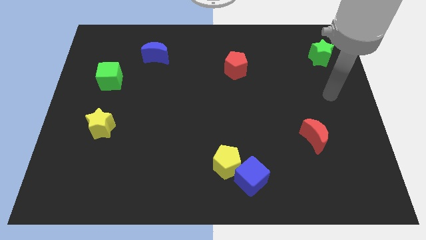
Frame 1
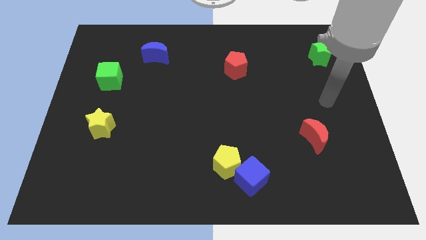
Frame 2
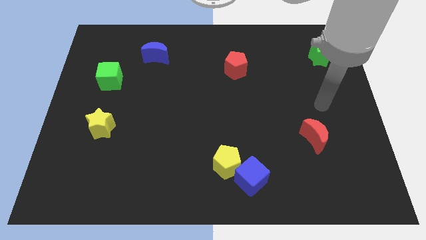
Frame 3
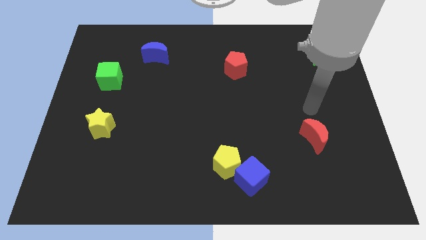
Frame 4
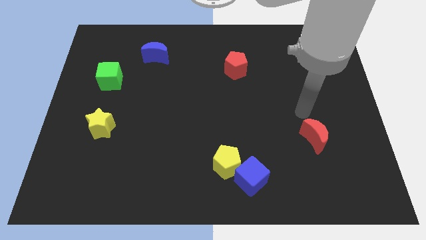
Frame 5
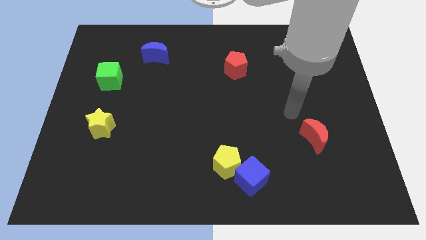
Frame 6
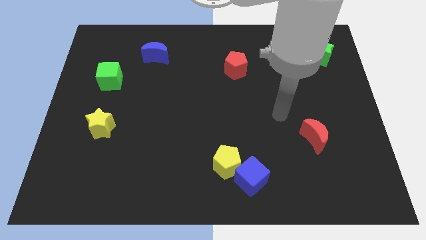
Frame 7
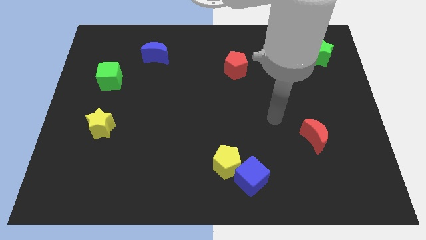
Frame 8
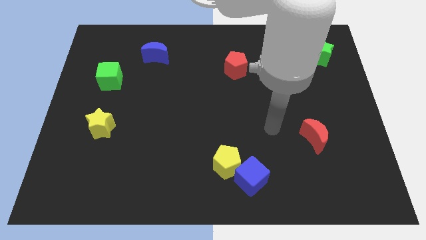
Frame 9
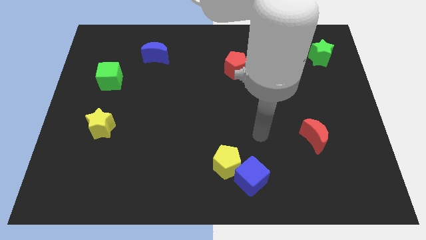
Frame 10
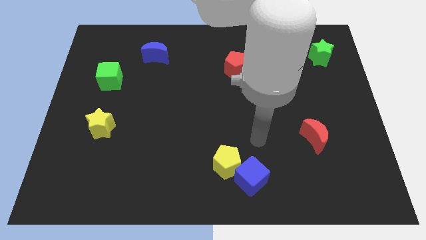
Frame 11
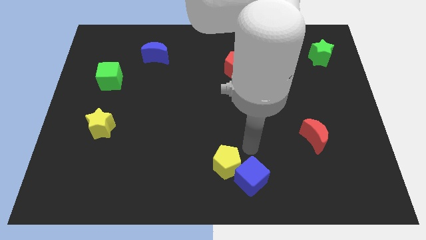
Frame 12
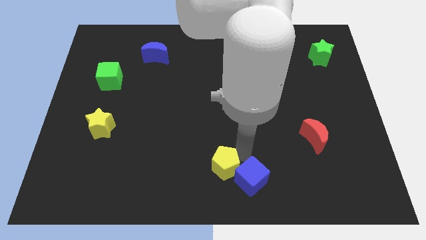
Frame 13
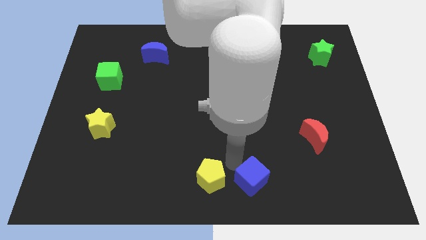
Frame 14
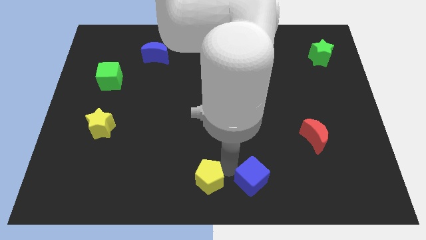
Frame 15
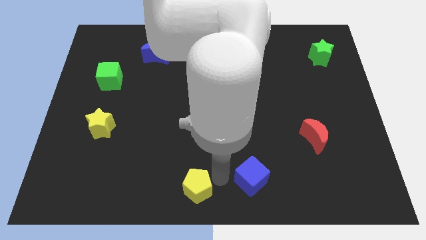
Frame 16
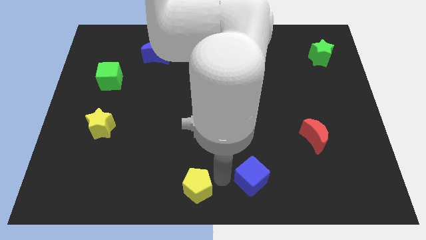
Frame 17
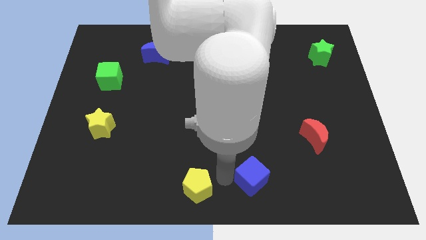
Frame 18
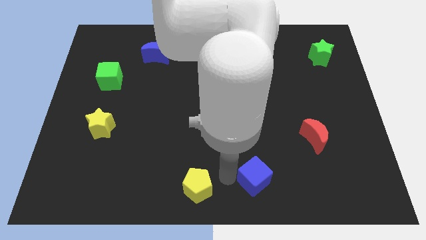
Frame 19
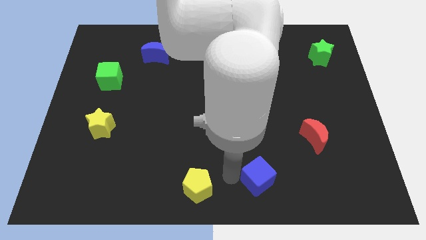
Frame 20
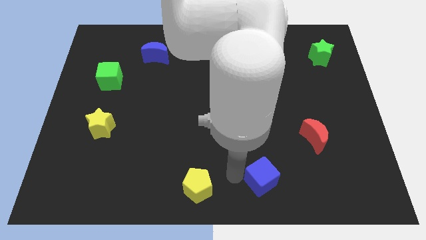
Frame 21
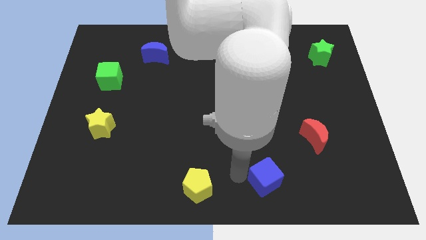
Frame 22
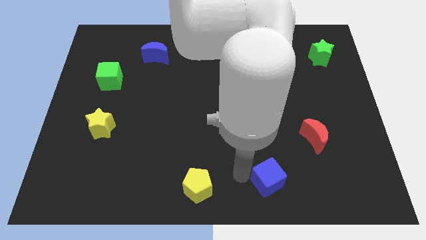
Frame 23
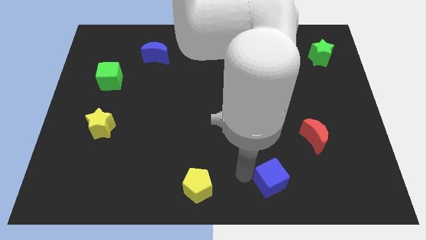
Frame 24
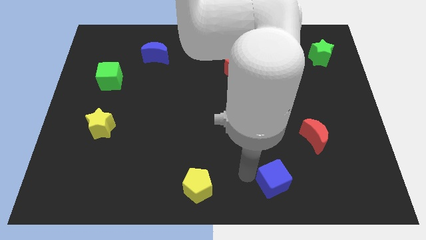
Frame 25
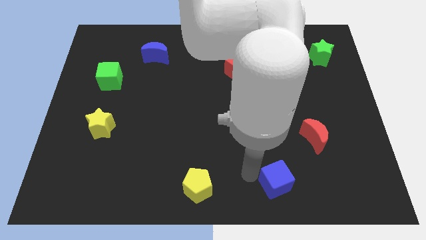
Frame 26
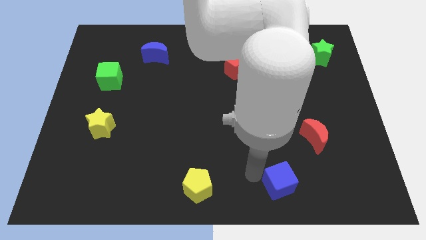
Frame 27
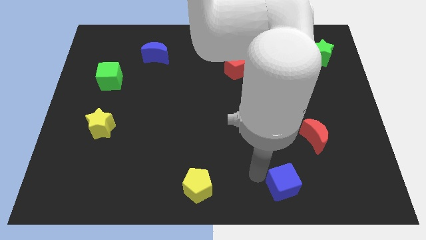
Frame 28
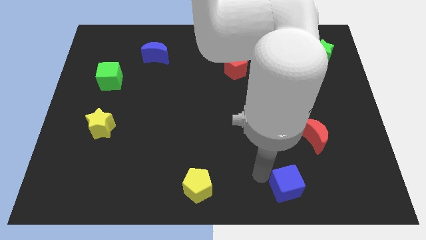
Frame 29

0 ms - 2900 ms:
slightly slide the blue cube to the right

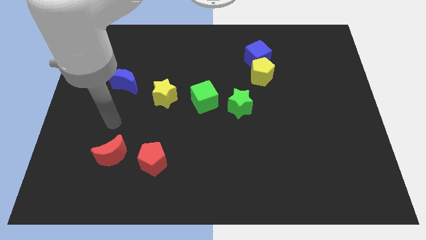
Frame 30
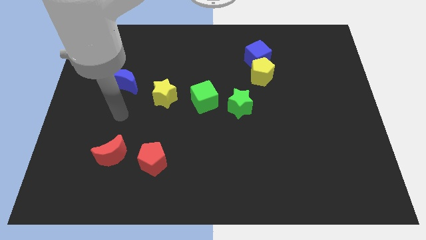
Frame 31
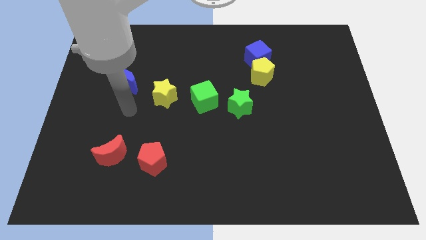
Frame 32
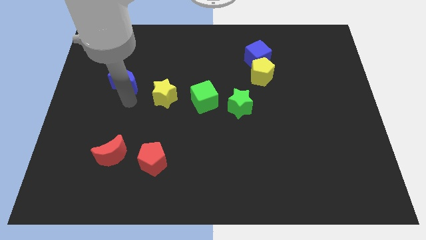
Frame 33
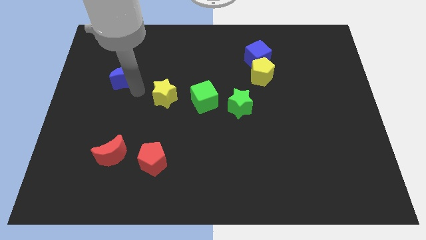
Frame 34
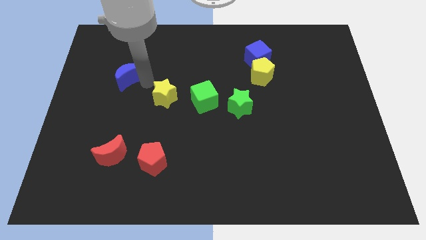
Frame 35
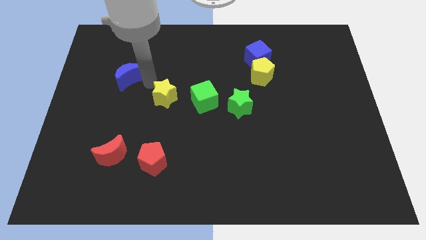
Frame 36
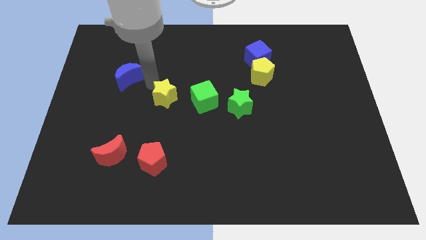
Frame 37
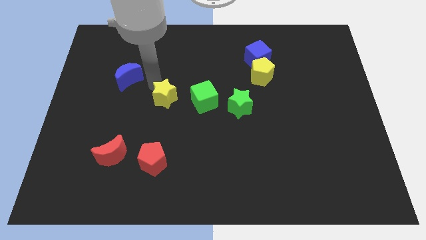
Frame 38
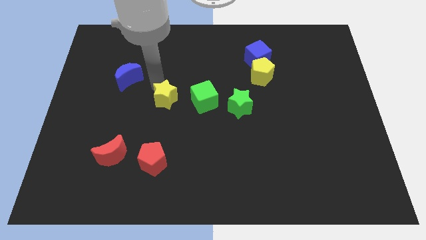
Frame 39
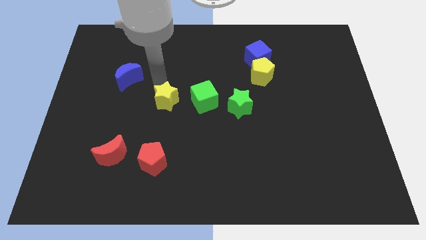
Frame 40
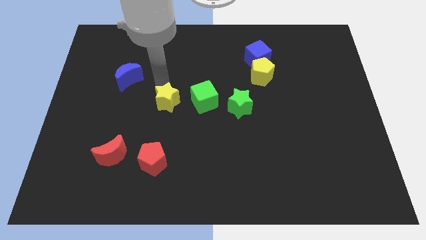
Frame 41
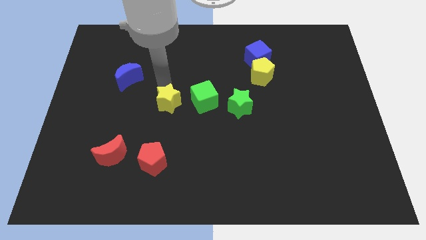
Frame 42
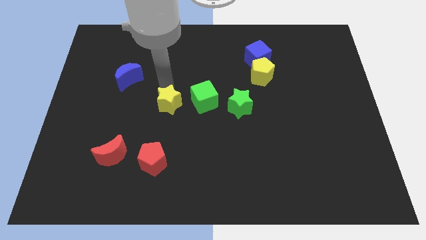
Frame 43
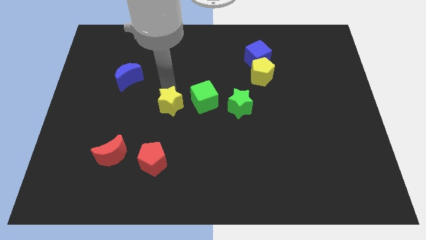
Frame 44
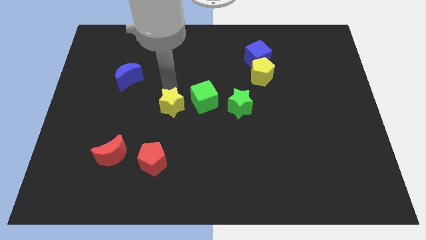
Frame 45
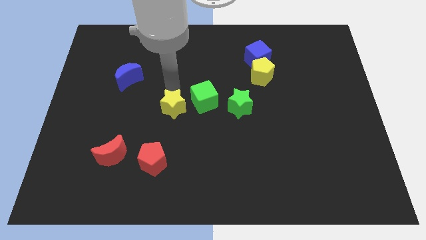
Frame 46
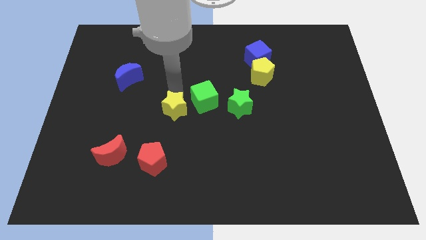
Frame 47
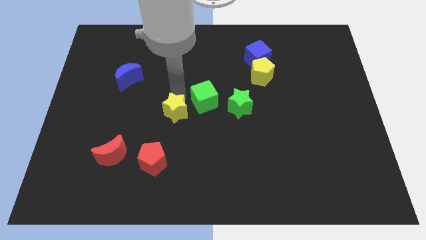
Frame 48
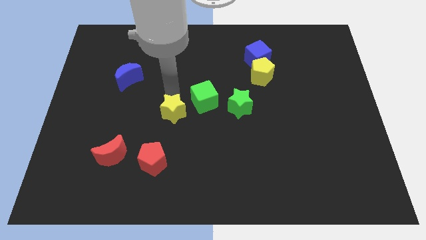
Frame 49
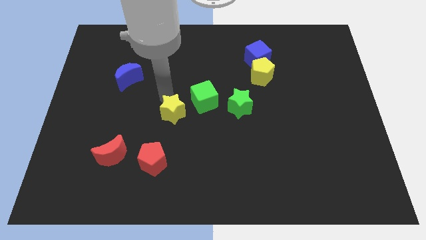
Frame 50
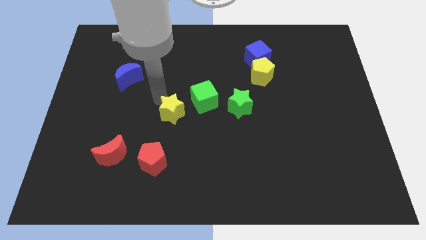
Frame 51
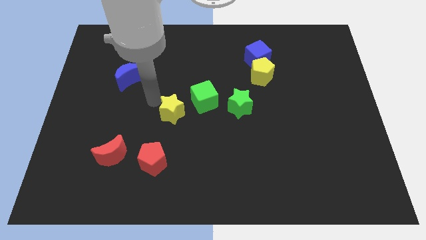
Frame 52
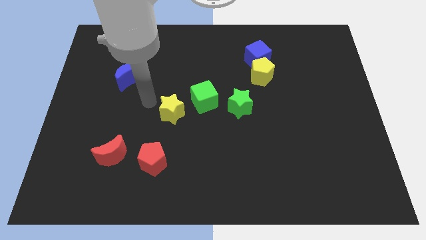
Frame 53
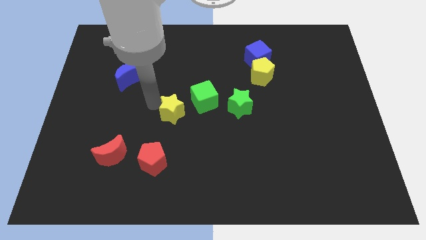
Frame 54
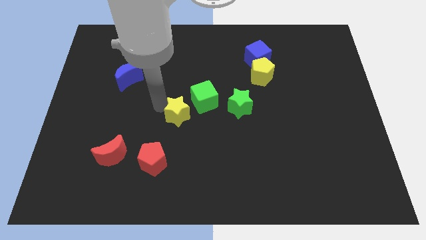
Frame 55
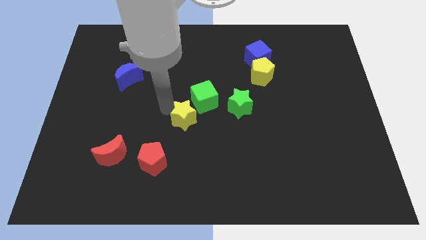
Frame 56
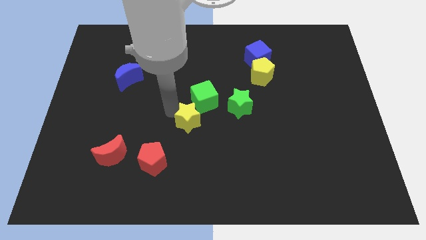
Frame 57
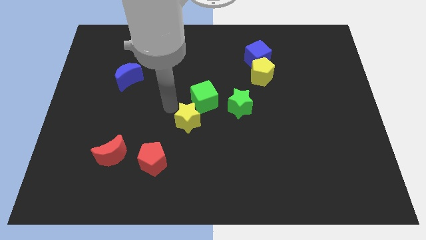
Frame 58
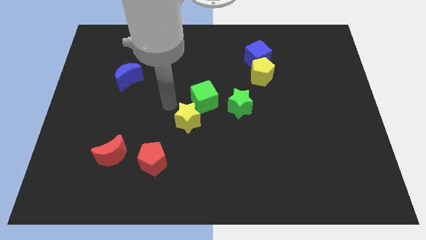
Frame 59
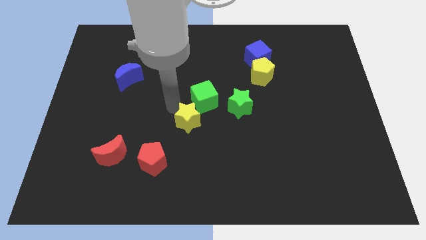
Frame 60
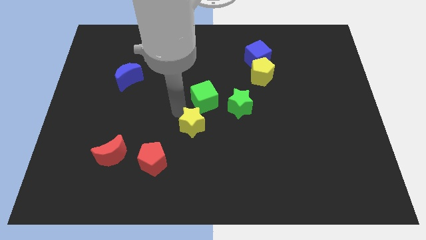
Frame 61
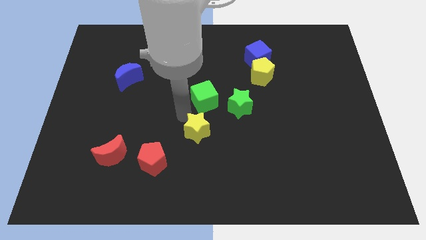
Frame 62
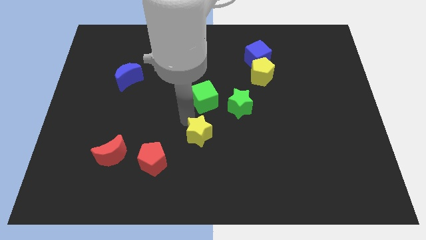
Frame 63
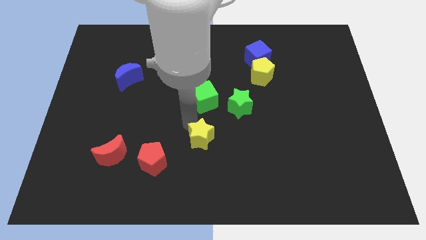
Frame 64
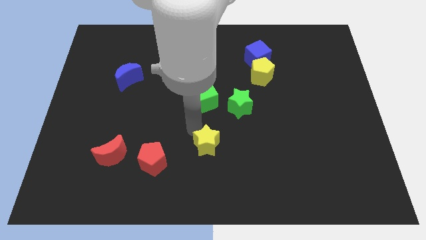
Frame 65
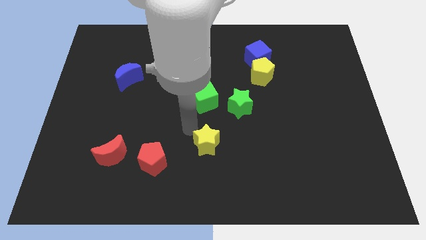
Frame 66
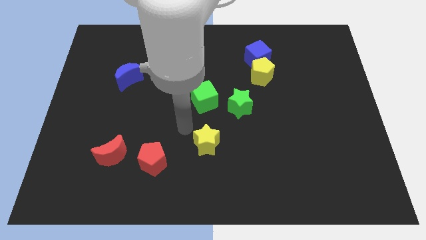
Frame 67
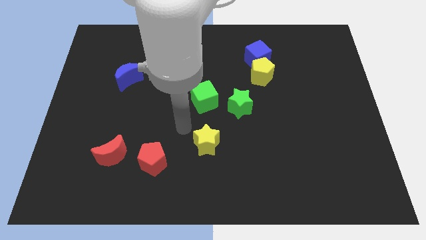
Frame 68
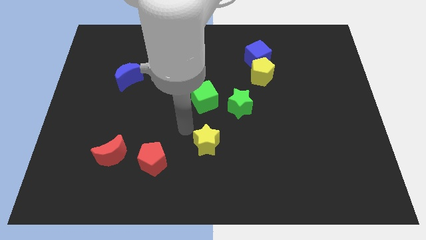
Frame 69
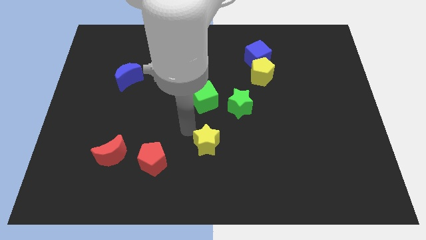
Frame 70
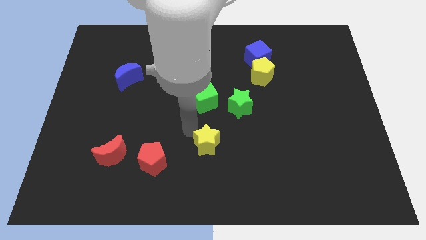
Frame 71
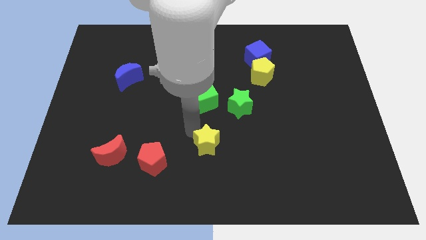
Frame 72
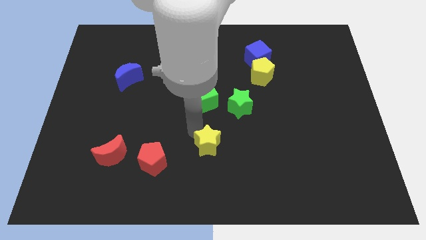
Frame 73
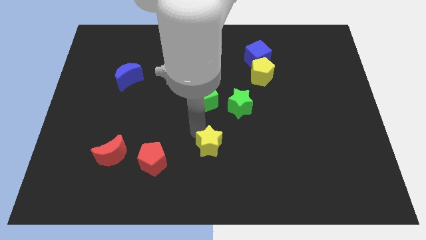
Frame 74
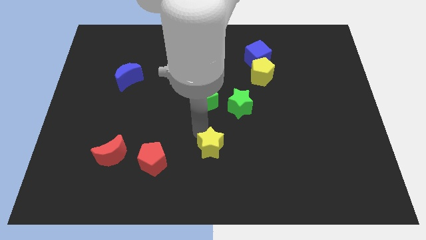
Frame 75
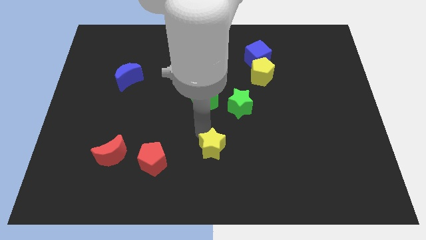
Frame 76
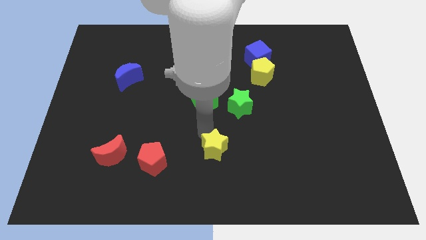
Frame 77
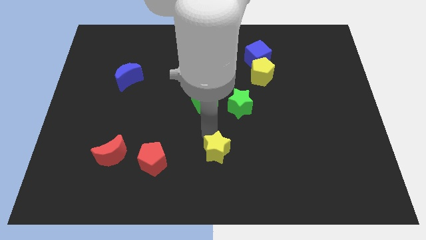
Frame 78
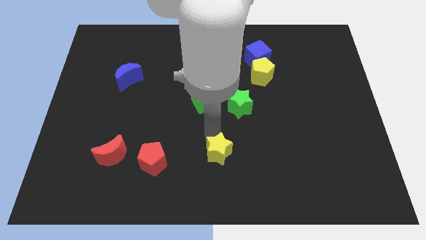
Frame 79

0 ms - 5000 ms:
push the yellow star downwards and to the right diagonally

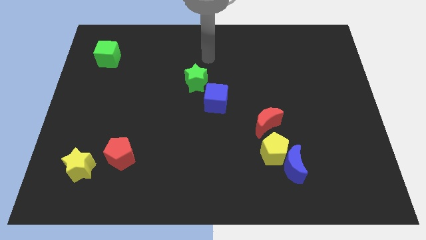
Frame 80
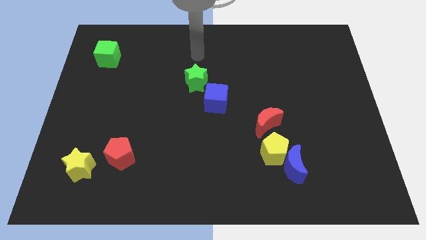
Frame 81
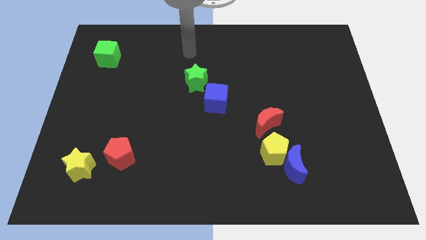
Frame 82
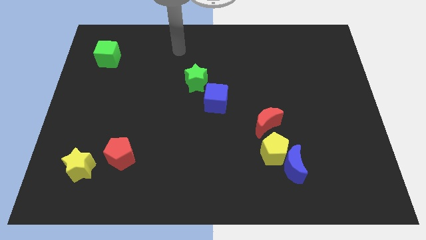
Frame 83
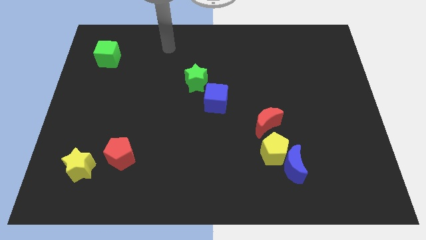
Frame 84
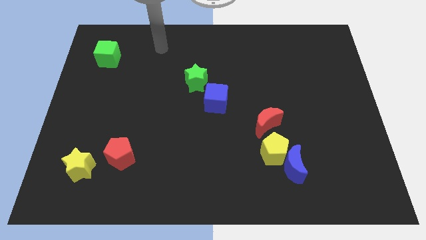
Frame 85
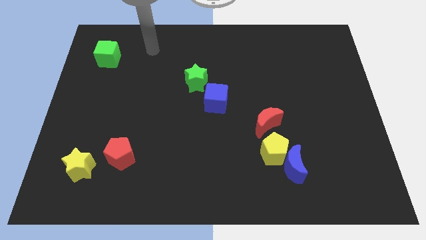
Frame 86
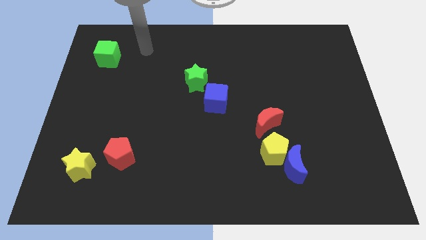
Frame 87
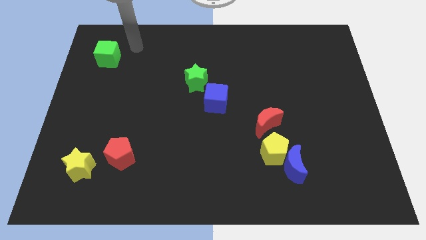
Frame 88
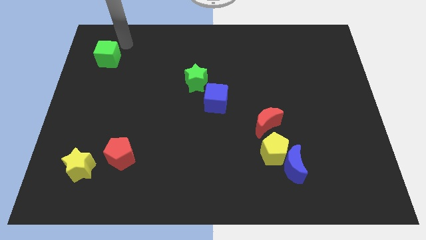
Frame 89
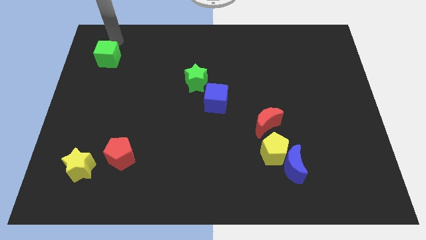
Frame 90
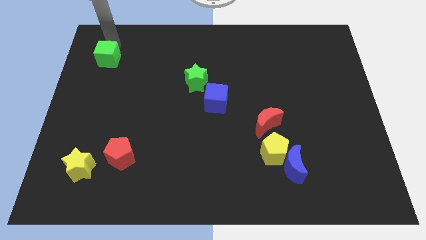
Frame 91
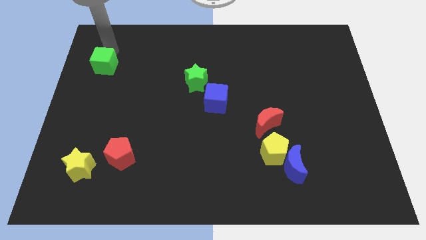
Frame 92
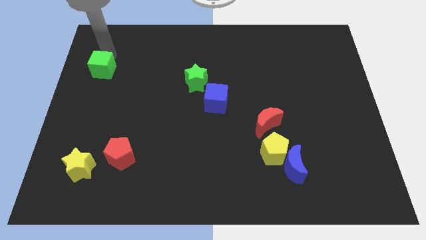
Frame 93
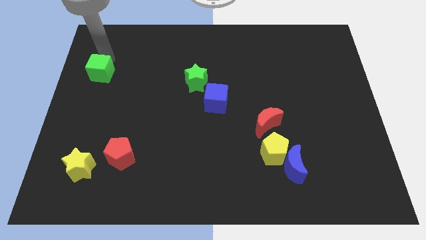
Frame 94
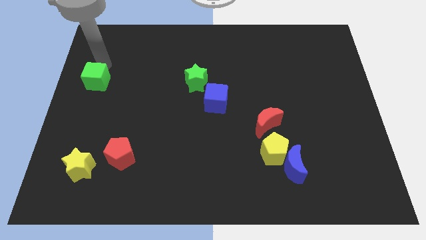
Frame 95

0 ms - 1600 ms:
slide the green cube slightly down
